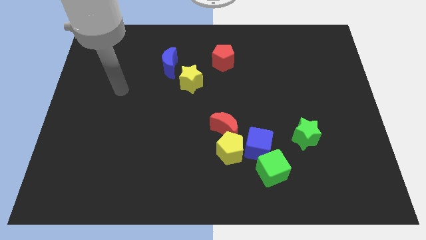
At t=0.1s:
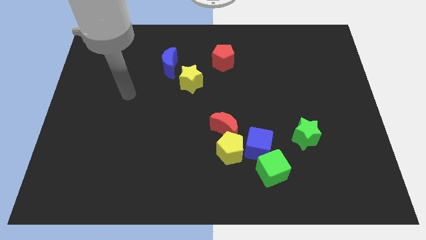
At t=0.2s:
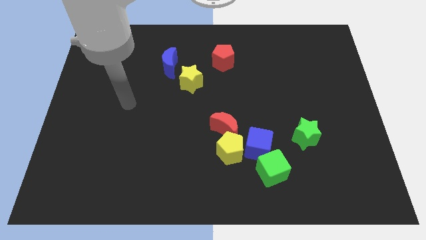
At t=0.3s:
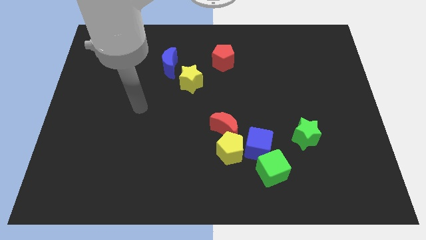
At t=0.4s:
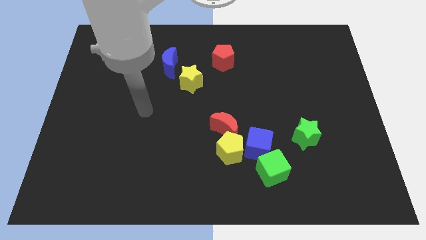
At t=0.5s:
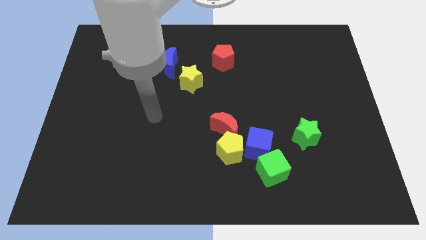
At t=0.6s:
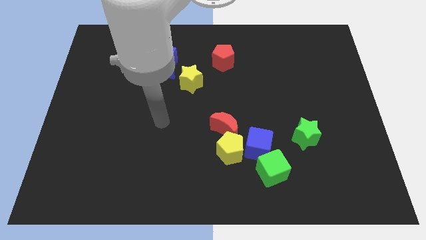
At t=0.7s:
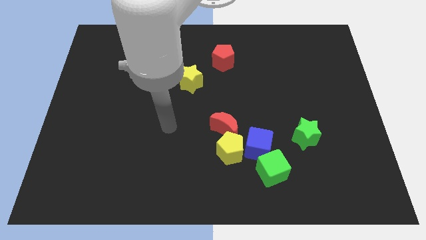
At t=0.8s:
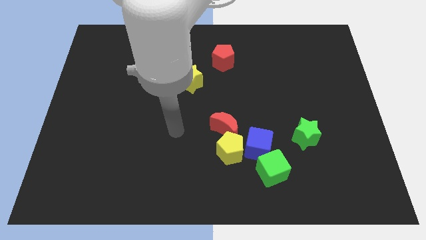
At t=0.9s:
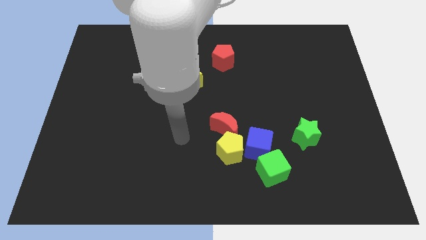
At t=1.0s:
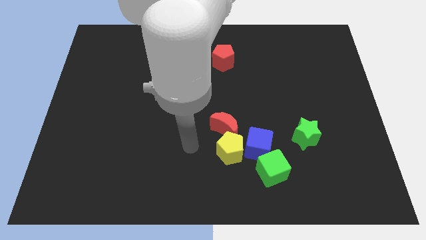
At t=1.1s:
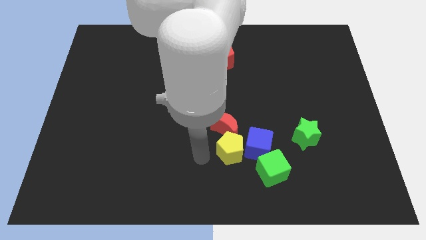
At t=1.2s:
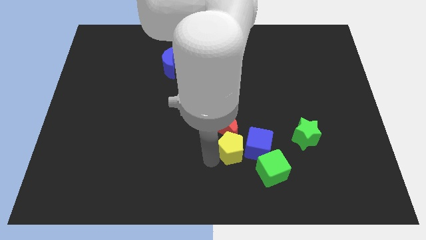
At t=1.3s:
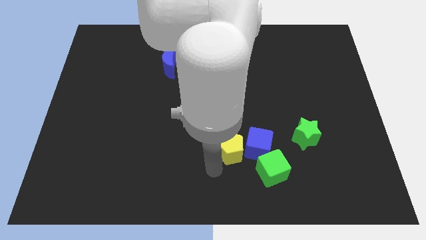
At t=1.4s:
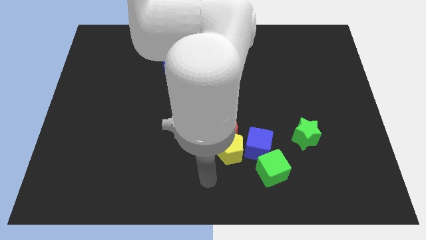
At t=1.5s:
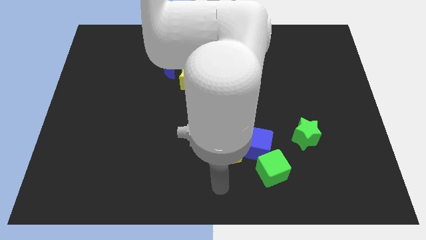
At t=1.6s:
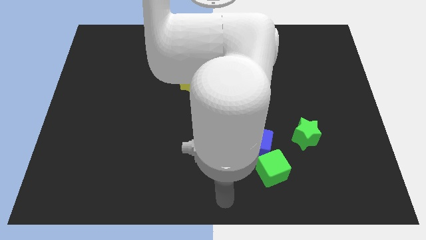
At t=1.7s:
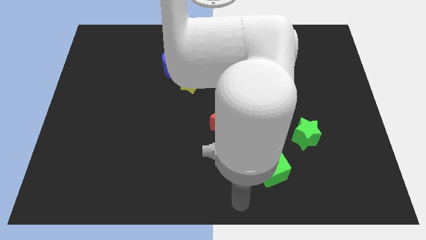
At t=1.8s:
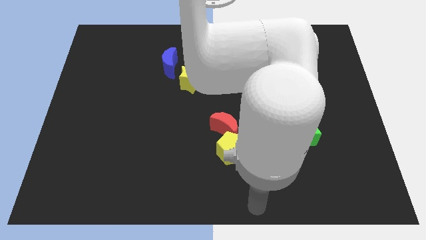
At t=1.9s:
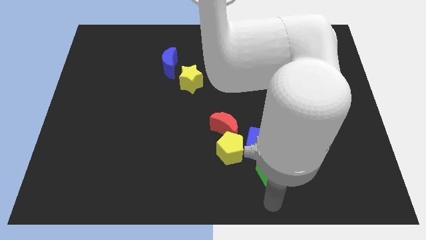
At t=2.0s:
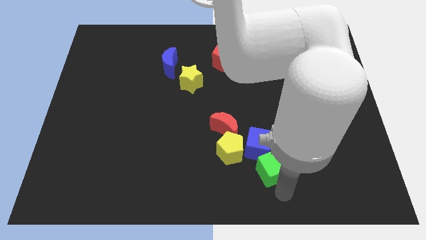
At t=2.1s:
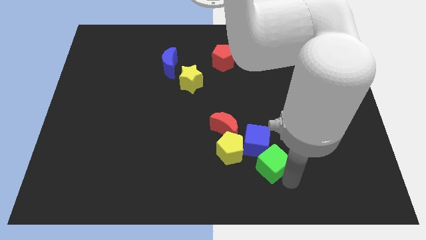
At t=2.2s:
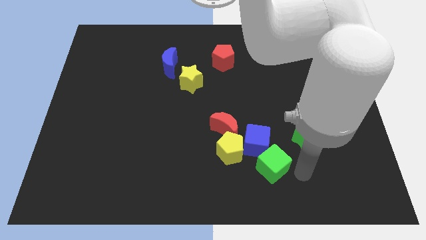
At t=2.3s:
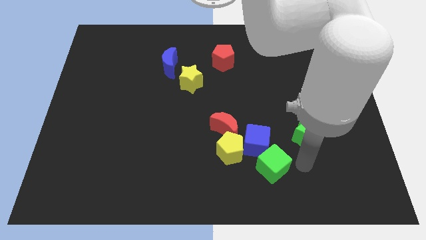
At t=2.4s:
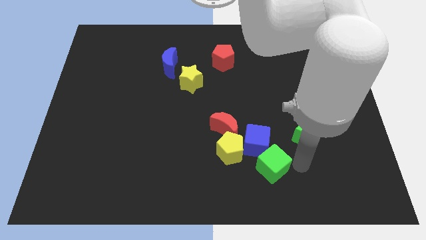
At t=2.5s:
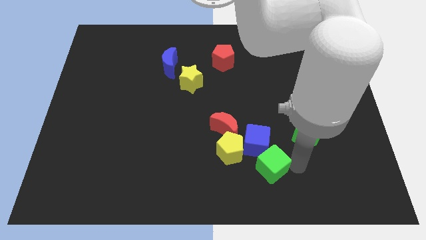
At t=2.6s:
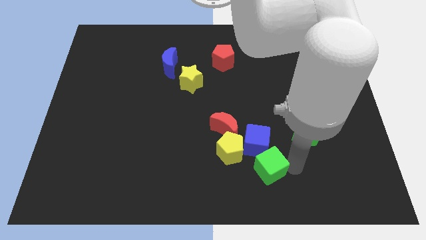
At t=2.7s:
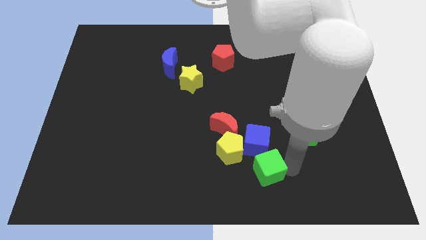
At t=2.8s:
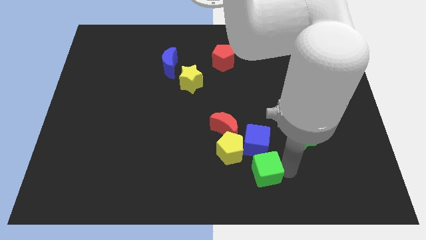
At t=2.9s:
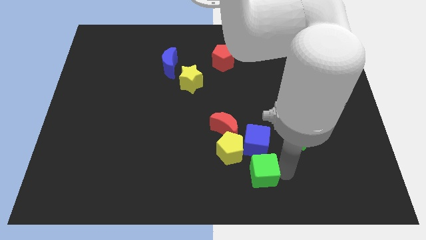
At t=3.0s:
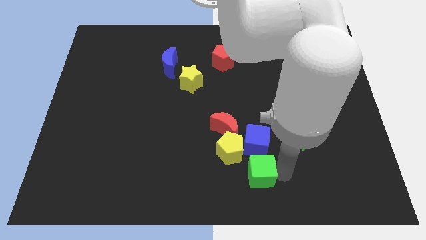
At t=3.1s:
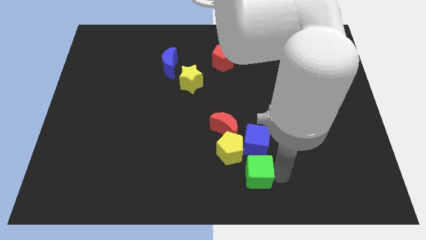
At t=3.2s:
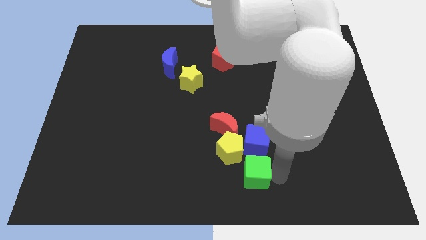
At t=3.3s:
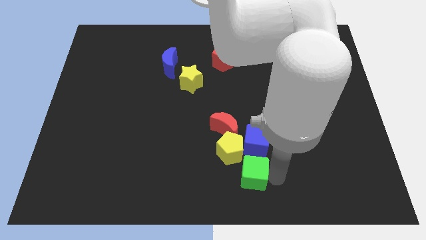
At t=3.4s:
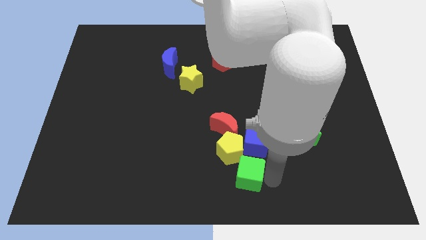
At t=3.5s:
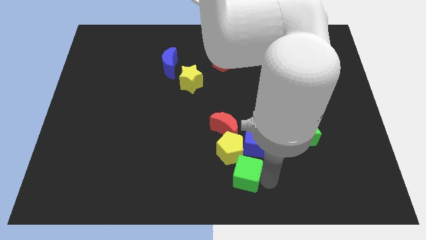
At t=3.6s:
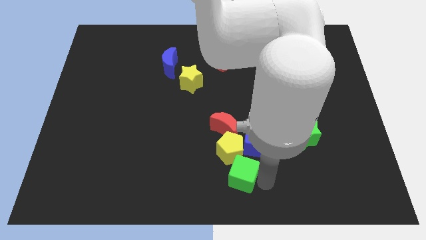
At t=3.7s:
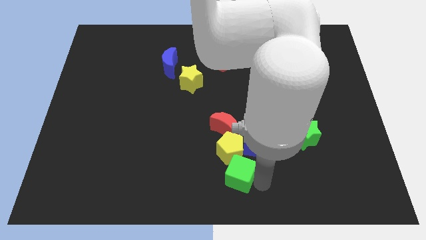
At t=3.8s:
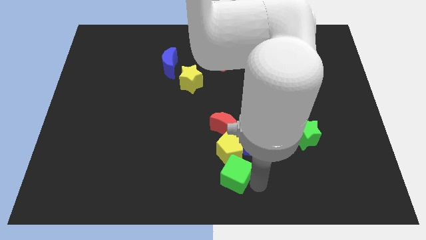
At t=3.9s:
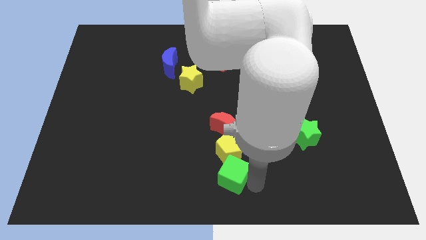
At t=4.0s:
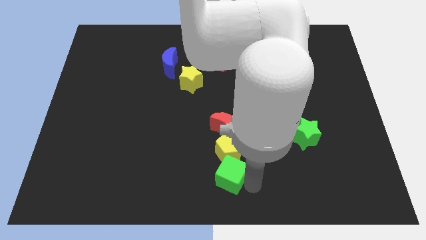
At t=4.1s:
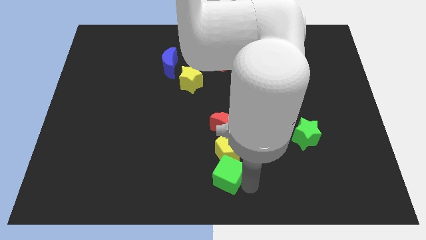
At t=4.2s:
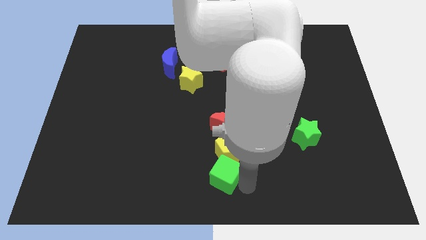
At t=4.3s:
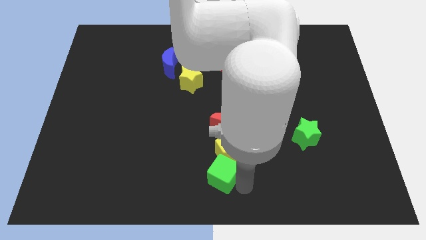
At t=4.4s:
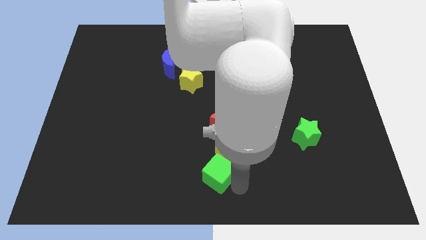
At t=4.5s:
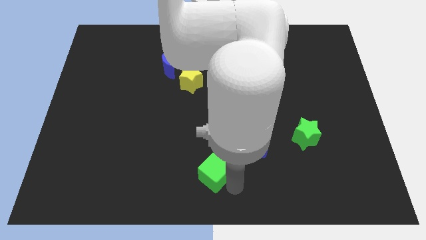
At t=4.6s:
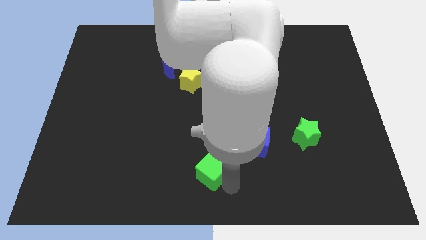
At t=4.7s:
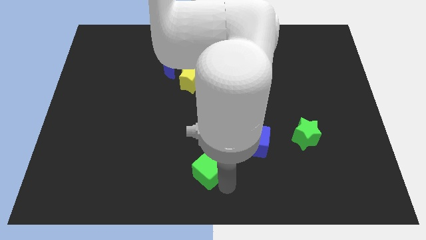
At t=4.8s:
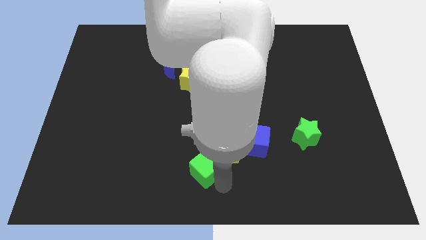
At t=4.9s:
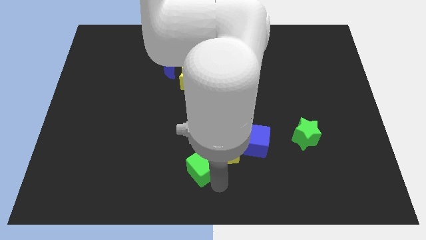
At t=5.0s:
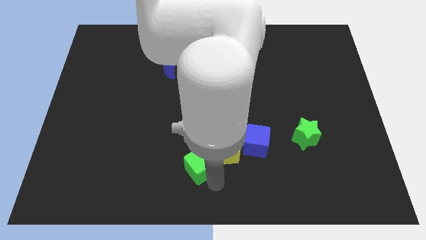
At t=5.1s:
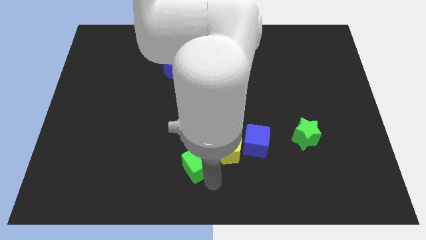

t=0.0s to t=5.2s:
move the green cube upwards and left a bit

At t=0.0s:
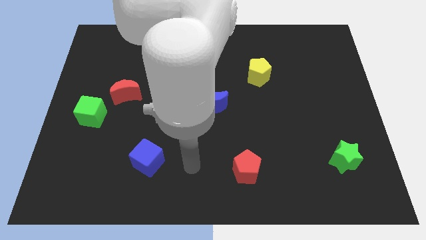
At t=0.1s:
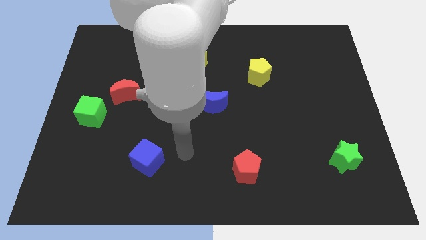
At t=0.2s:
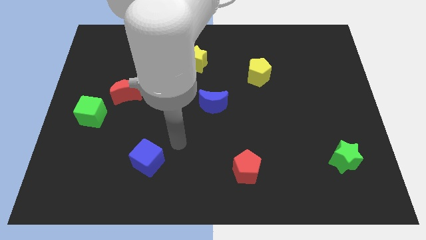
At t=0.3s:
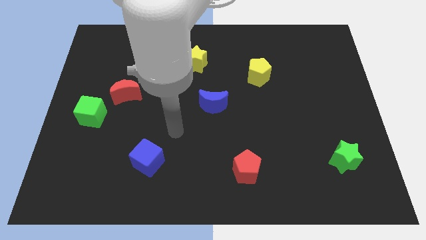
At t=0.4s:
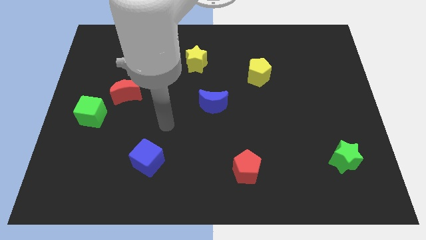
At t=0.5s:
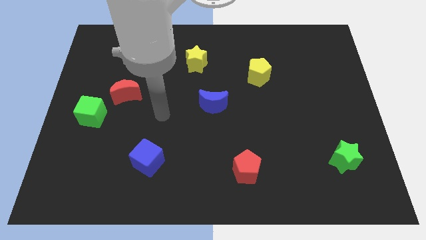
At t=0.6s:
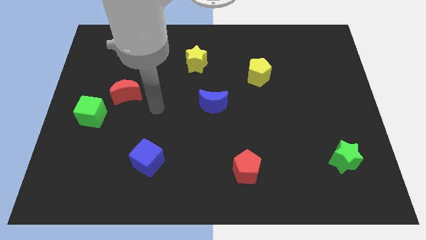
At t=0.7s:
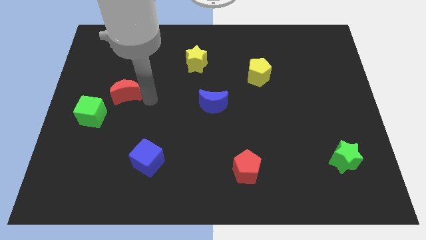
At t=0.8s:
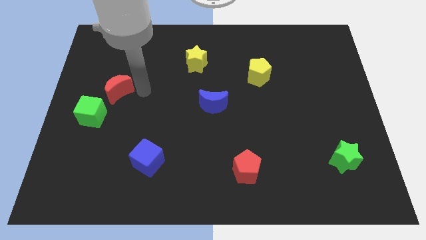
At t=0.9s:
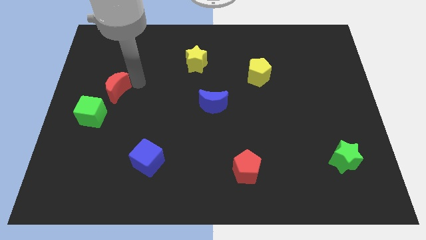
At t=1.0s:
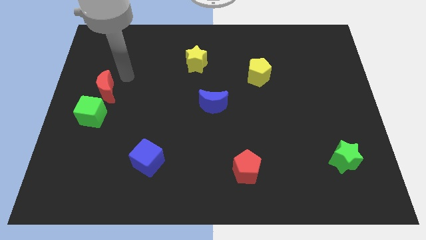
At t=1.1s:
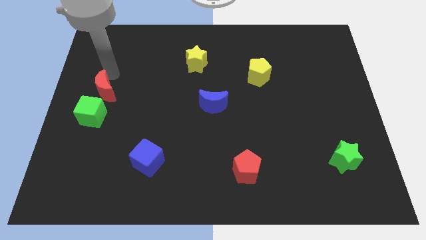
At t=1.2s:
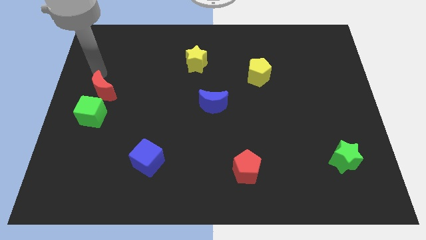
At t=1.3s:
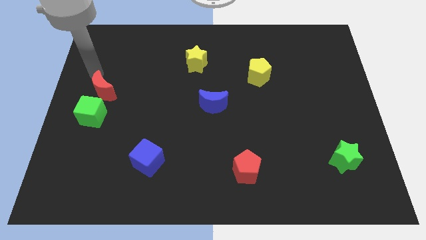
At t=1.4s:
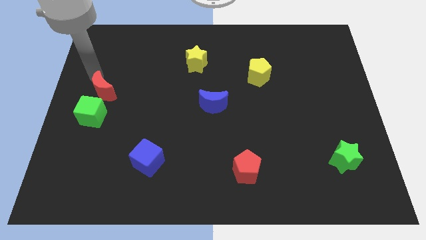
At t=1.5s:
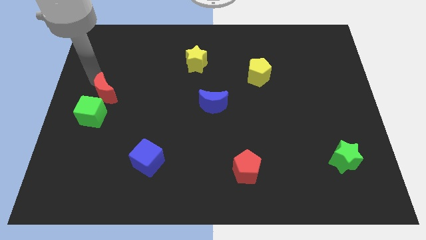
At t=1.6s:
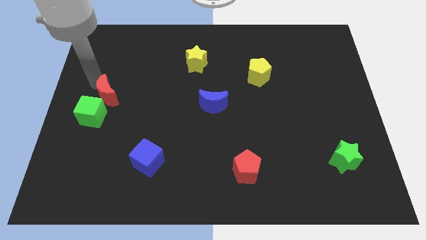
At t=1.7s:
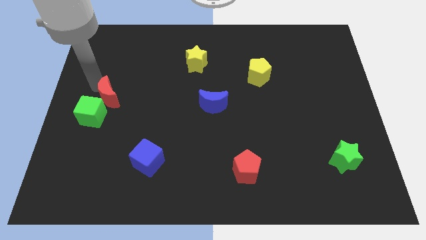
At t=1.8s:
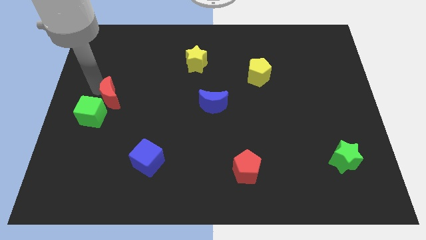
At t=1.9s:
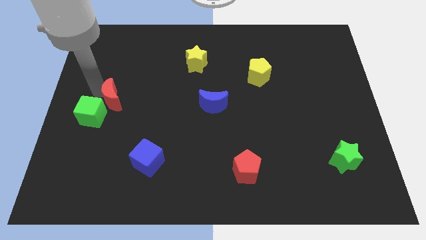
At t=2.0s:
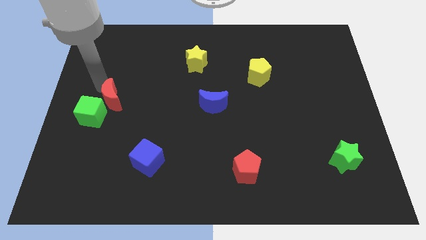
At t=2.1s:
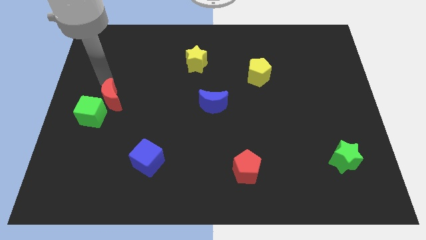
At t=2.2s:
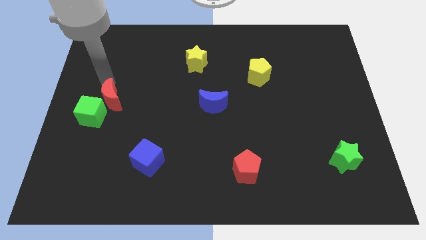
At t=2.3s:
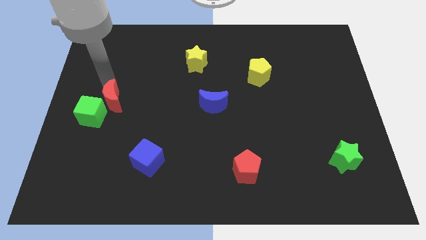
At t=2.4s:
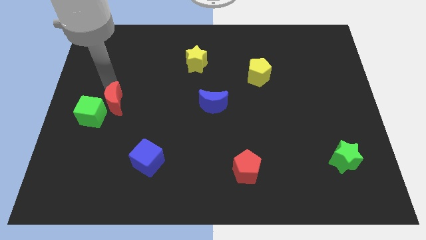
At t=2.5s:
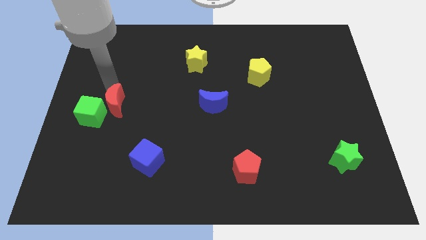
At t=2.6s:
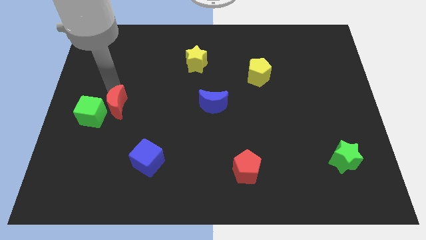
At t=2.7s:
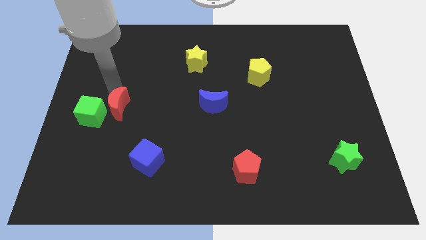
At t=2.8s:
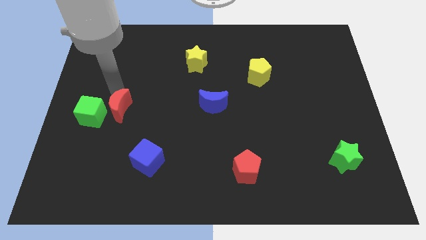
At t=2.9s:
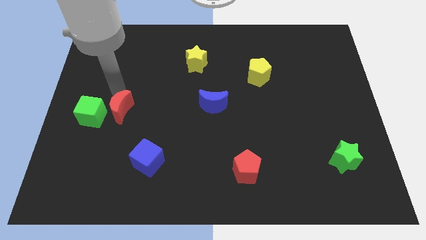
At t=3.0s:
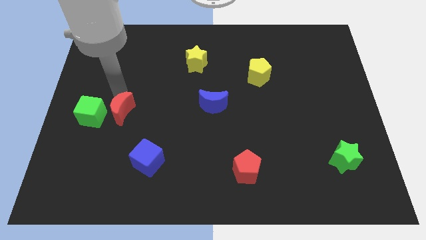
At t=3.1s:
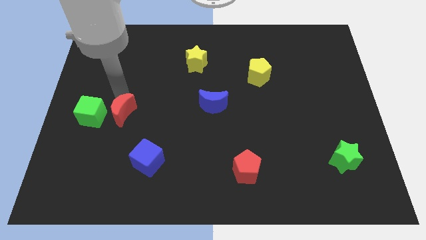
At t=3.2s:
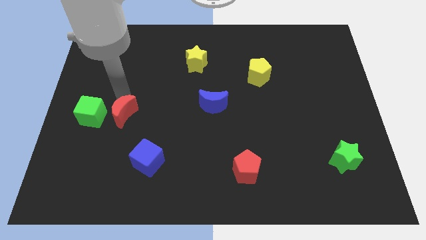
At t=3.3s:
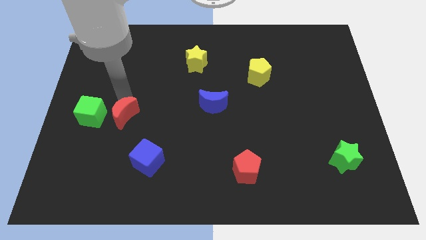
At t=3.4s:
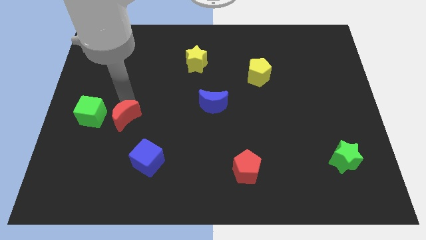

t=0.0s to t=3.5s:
push the red moon downwards slightly
